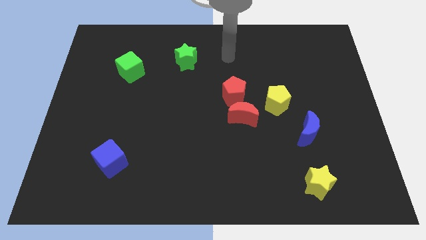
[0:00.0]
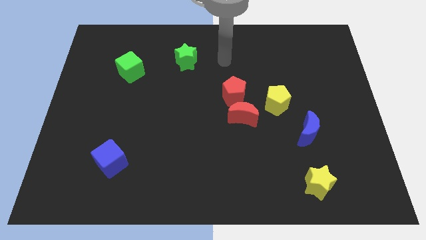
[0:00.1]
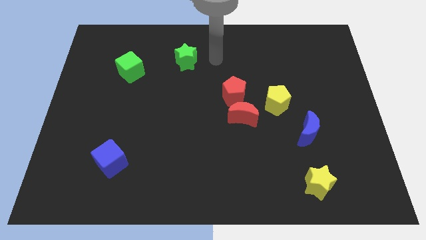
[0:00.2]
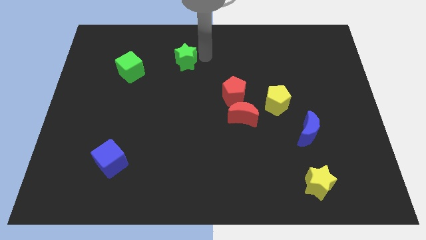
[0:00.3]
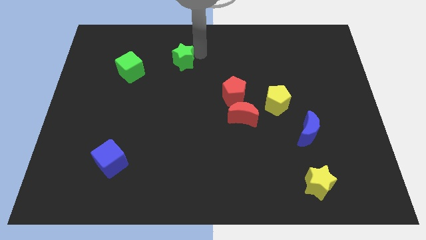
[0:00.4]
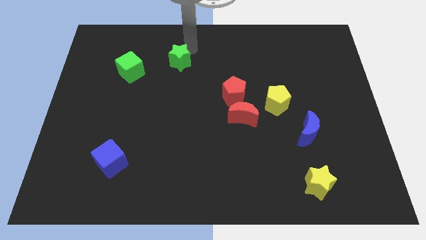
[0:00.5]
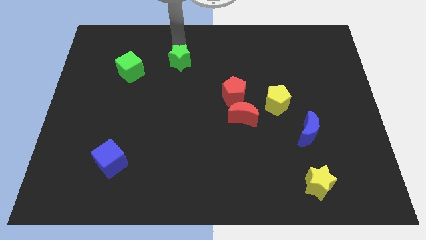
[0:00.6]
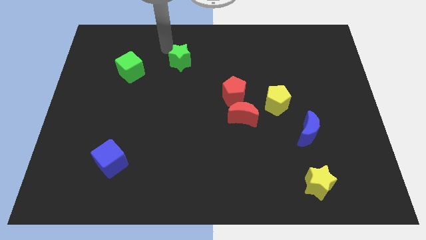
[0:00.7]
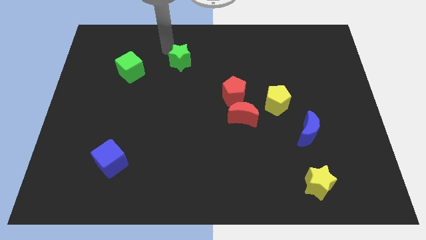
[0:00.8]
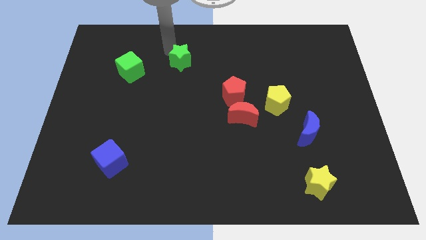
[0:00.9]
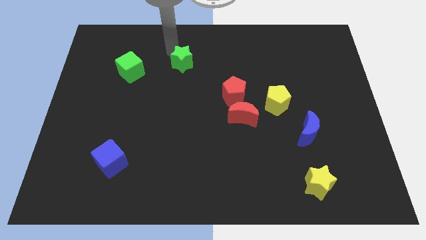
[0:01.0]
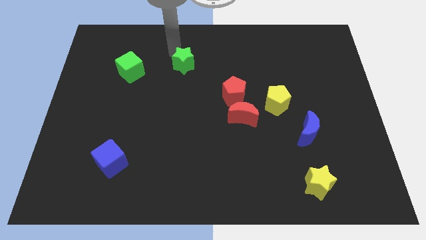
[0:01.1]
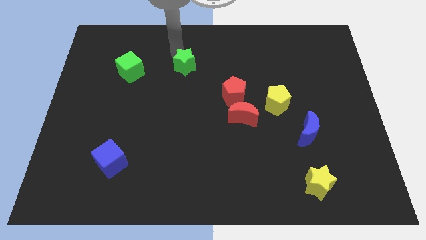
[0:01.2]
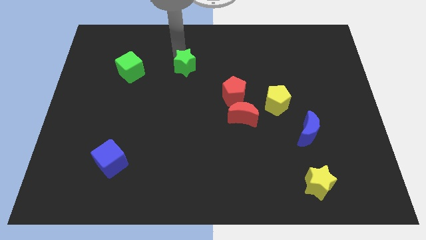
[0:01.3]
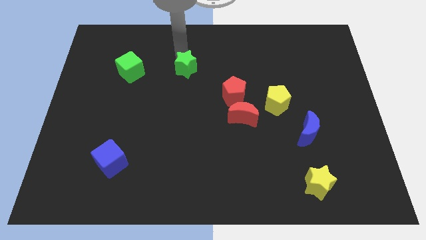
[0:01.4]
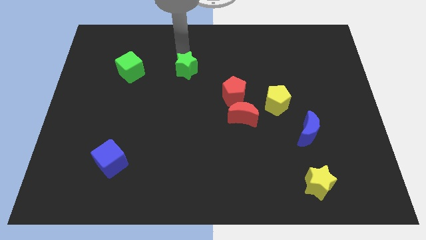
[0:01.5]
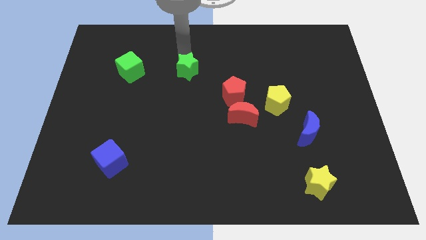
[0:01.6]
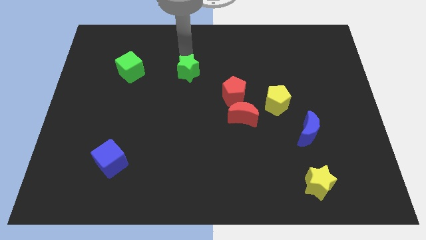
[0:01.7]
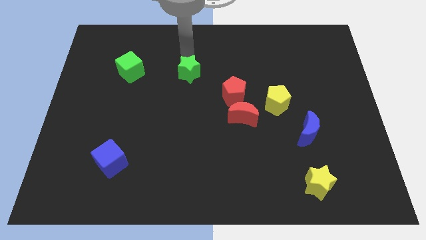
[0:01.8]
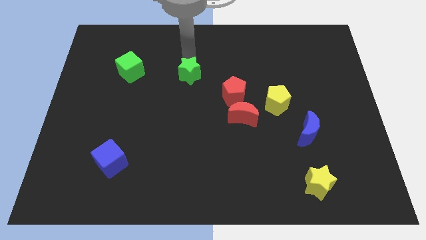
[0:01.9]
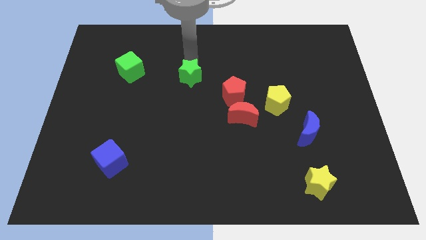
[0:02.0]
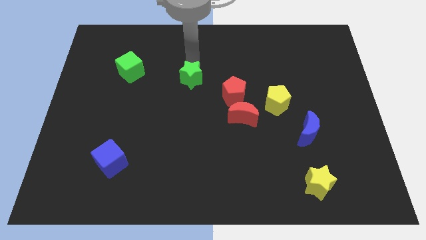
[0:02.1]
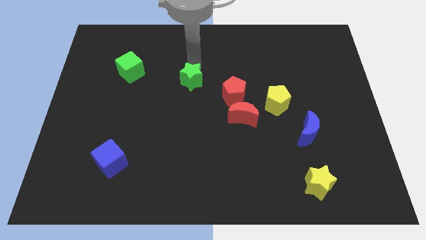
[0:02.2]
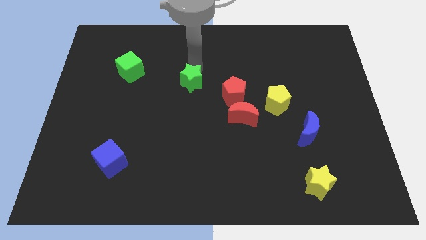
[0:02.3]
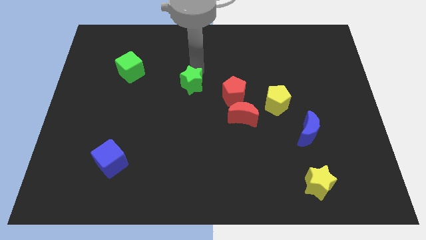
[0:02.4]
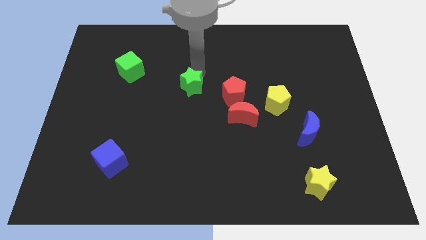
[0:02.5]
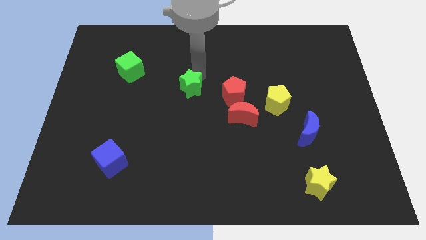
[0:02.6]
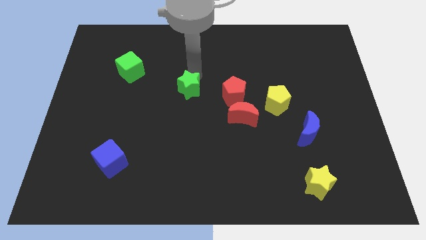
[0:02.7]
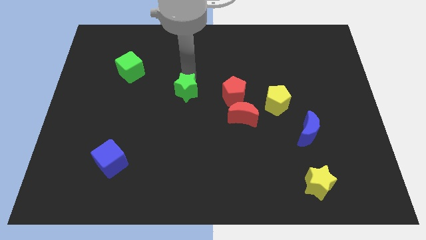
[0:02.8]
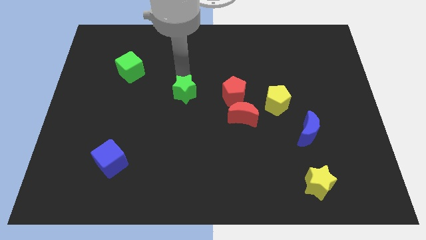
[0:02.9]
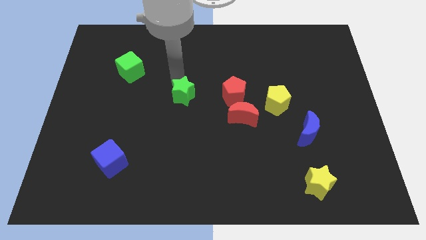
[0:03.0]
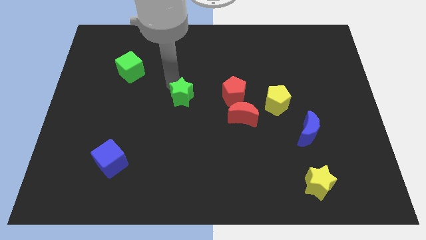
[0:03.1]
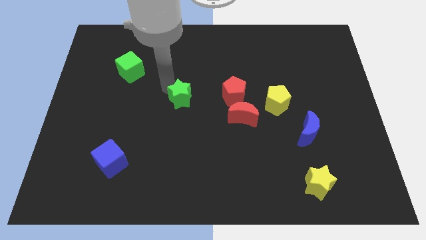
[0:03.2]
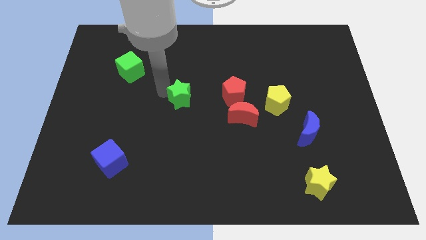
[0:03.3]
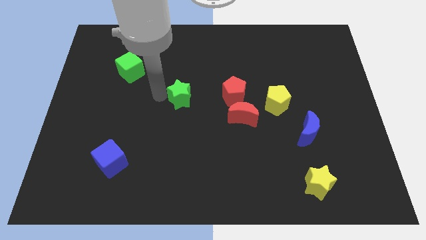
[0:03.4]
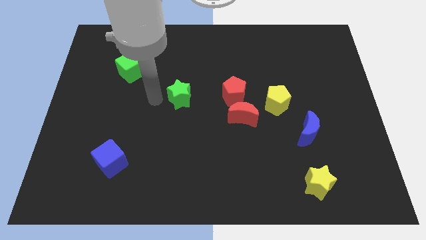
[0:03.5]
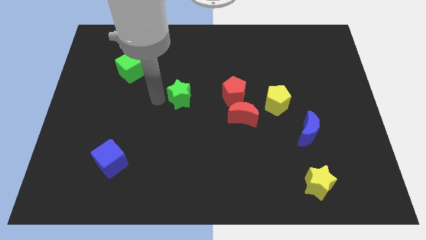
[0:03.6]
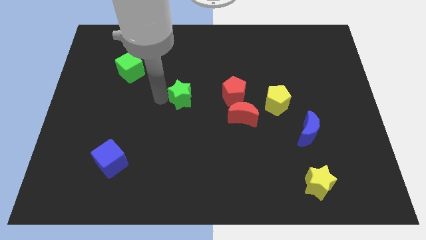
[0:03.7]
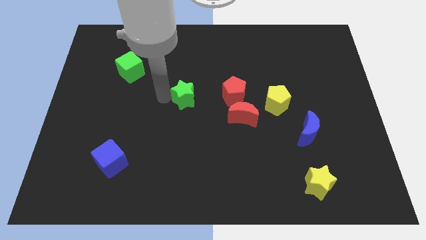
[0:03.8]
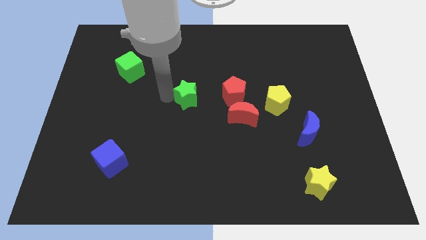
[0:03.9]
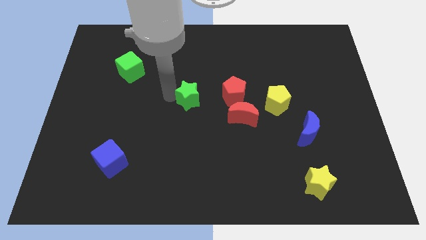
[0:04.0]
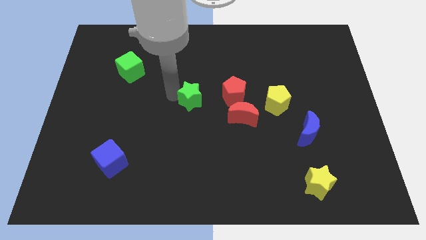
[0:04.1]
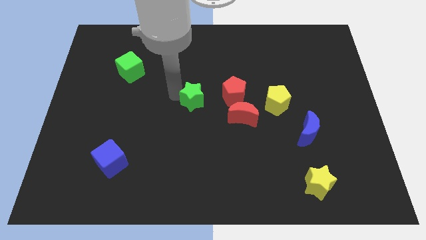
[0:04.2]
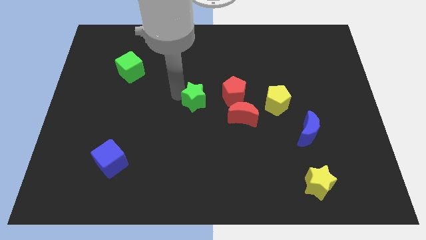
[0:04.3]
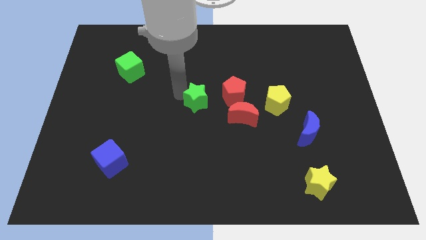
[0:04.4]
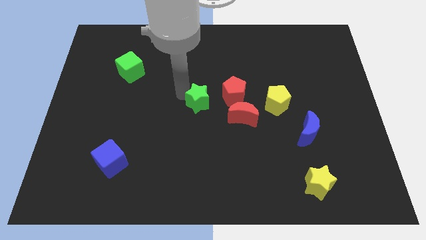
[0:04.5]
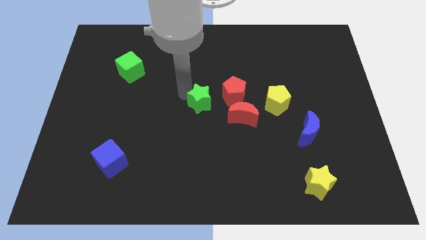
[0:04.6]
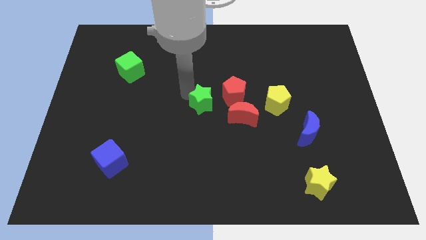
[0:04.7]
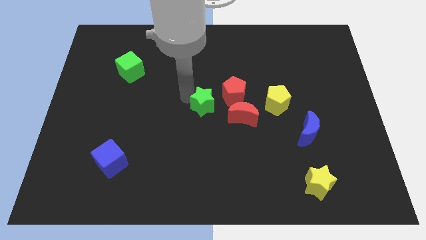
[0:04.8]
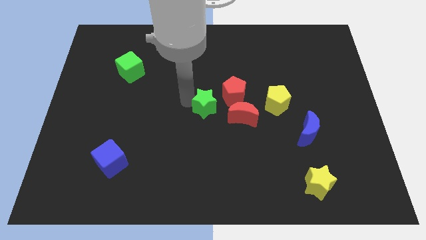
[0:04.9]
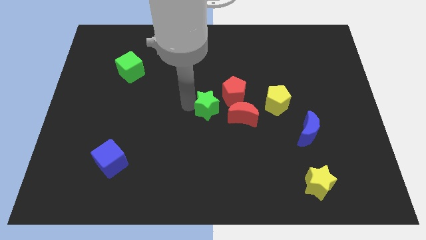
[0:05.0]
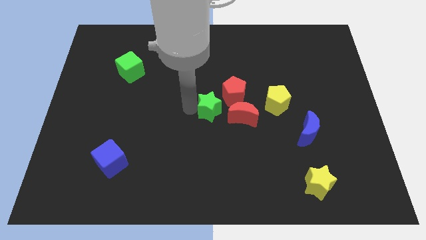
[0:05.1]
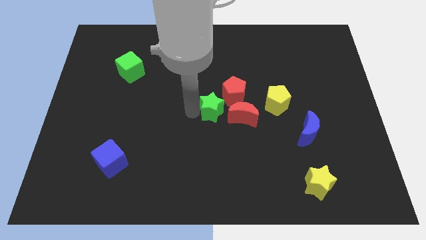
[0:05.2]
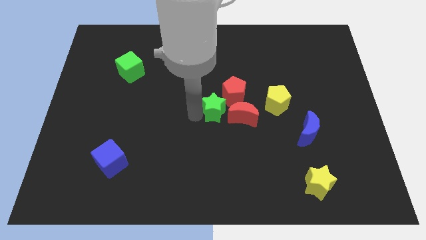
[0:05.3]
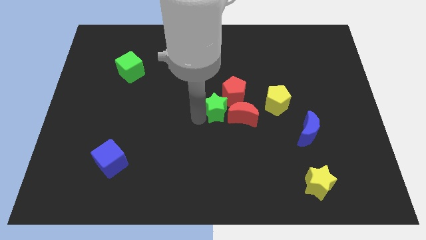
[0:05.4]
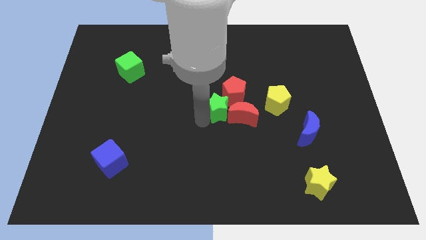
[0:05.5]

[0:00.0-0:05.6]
put the green star close to the red moon

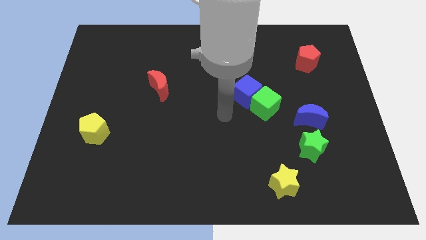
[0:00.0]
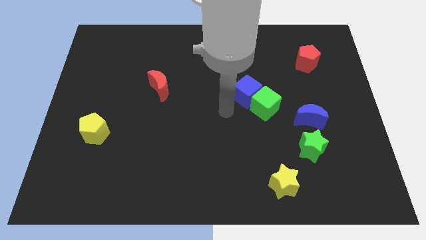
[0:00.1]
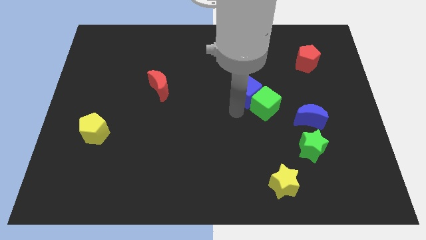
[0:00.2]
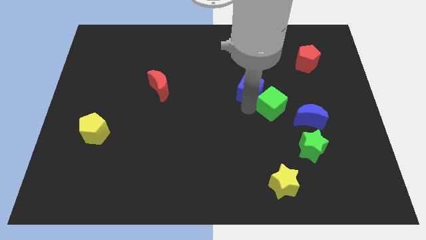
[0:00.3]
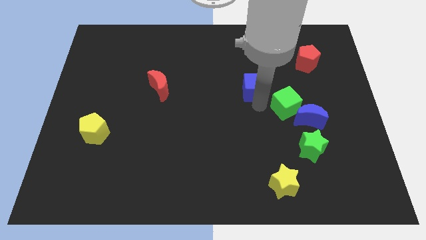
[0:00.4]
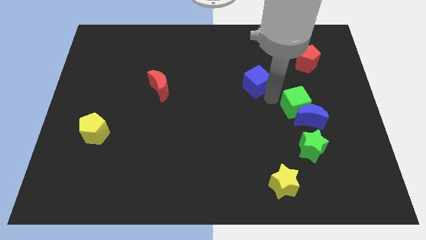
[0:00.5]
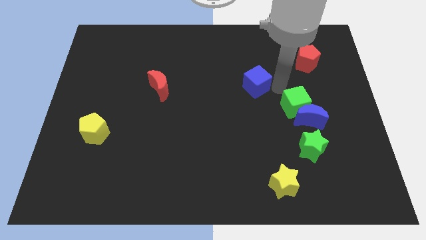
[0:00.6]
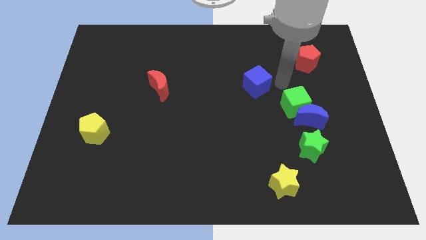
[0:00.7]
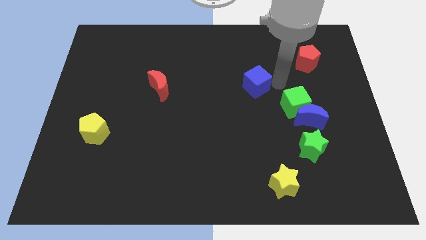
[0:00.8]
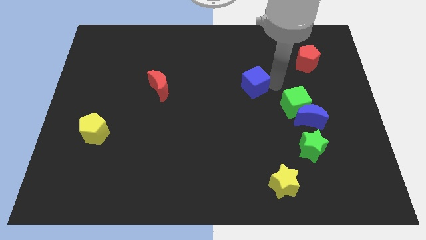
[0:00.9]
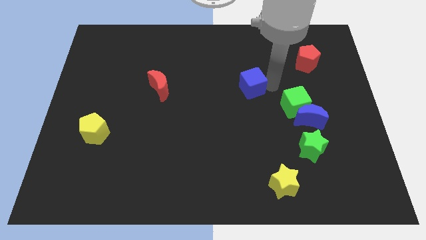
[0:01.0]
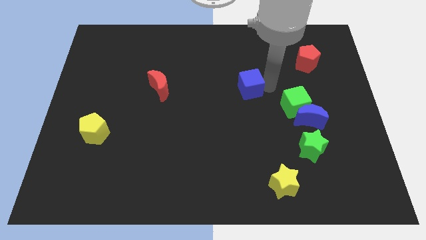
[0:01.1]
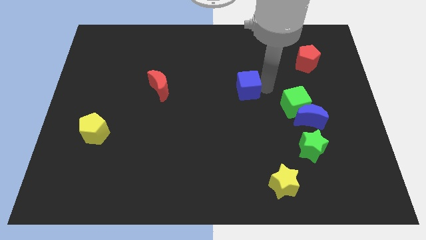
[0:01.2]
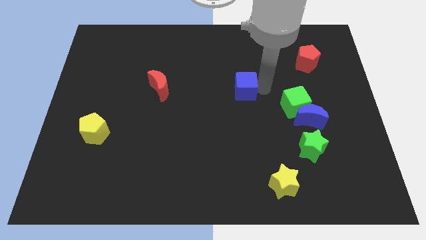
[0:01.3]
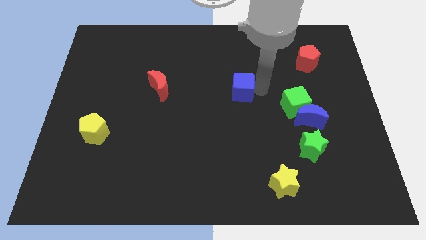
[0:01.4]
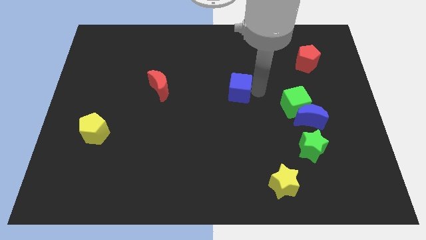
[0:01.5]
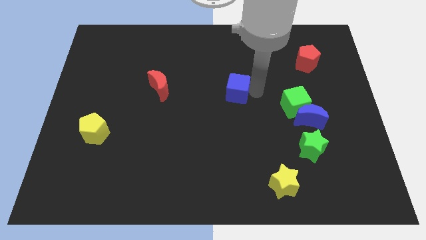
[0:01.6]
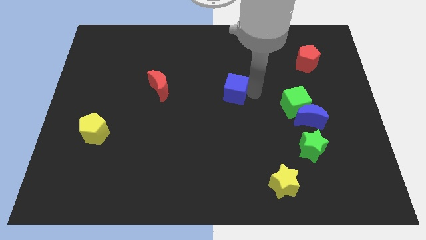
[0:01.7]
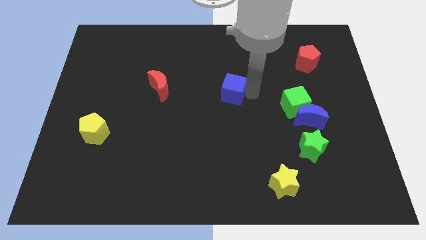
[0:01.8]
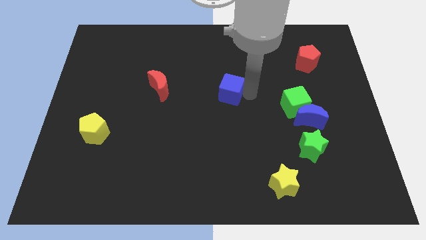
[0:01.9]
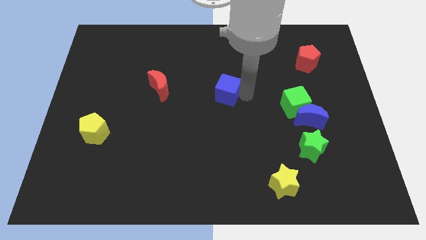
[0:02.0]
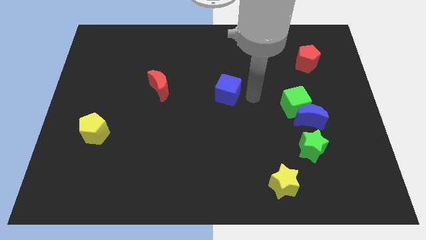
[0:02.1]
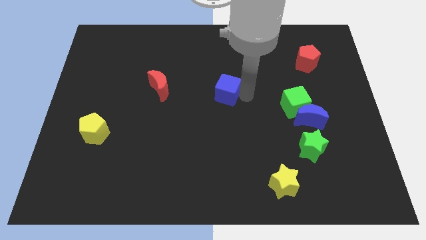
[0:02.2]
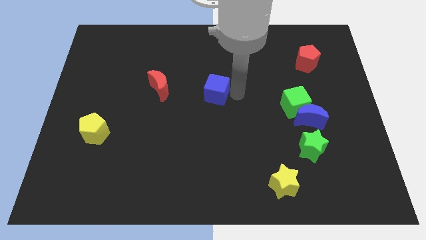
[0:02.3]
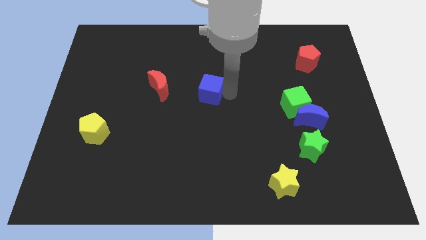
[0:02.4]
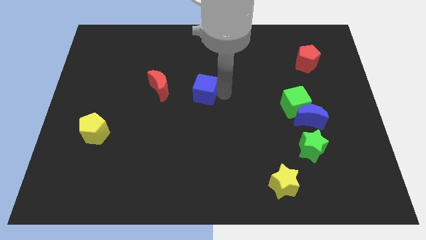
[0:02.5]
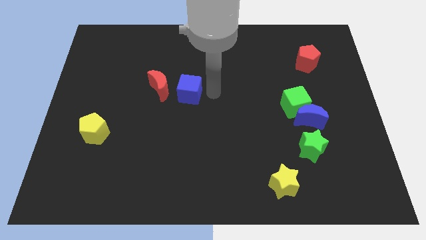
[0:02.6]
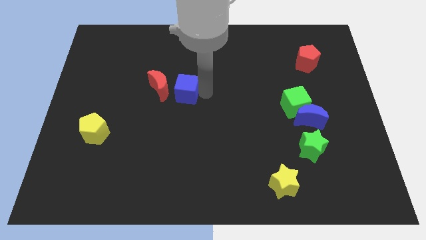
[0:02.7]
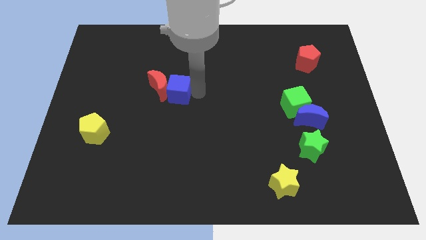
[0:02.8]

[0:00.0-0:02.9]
put the blue cube next to the red moon
